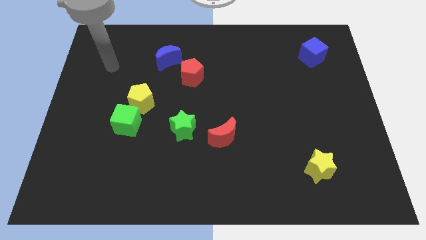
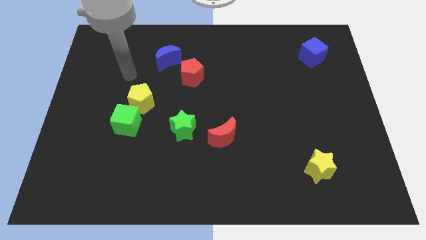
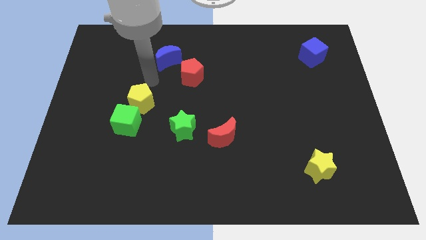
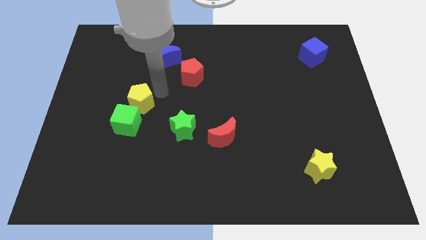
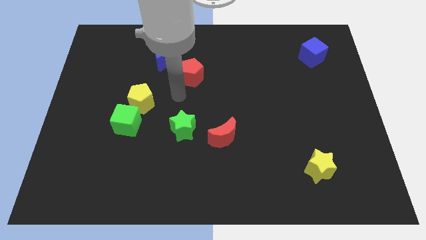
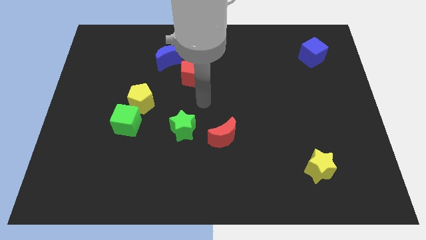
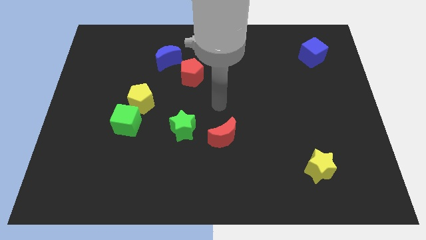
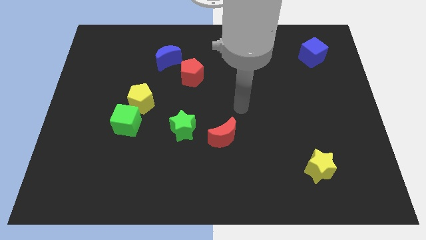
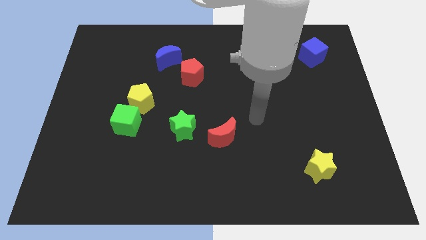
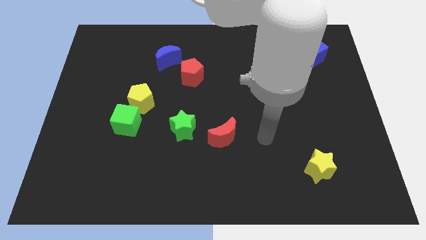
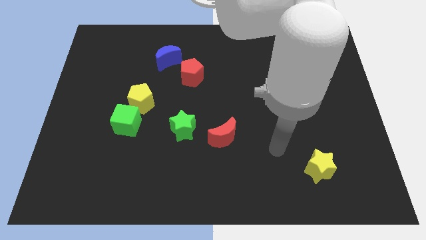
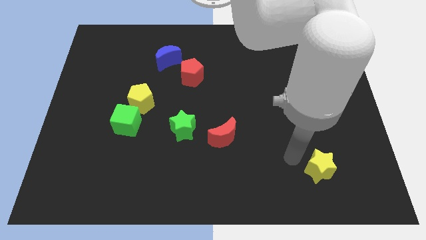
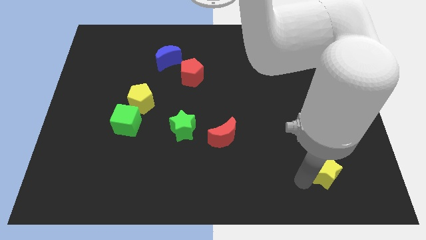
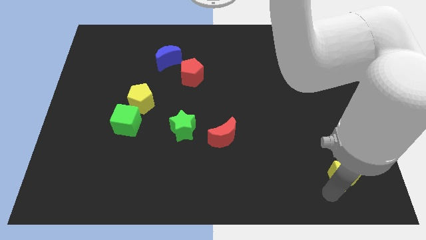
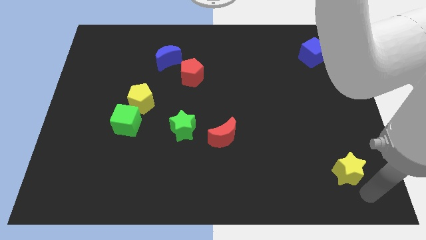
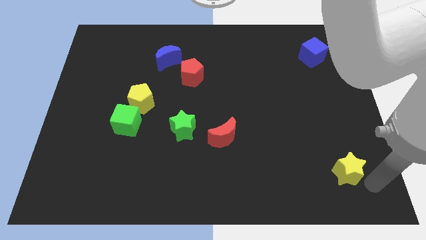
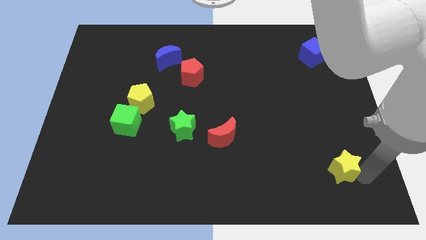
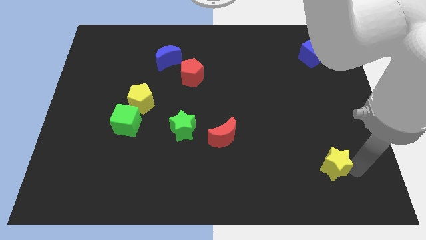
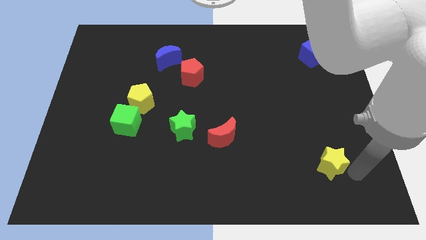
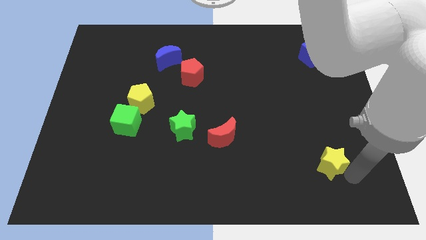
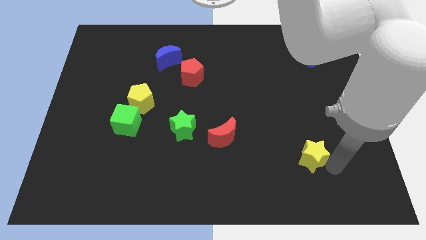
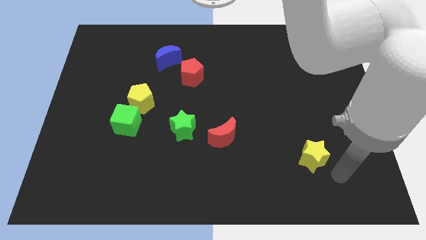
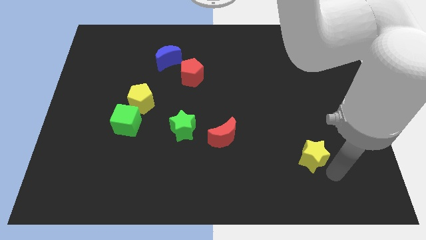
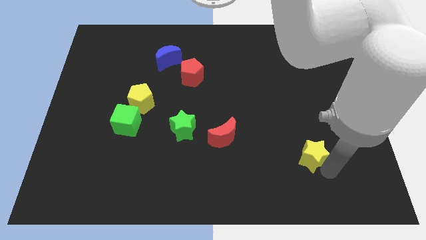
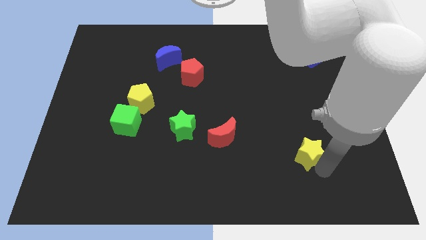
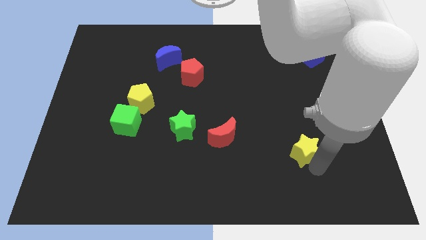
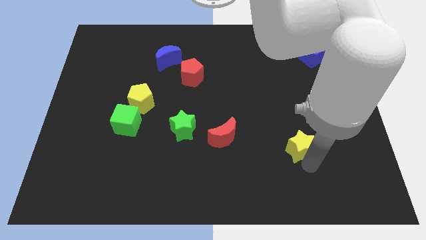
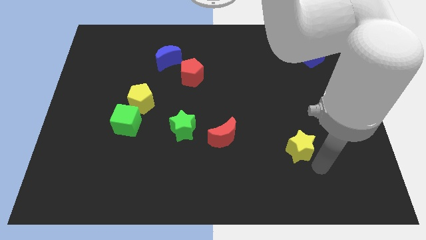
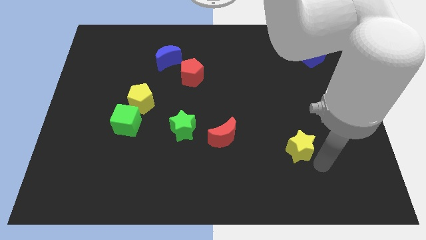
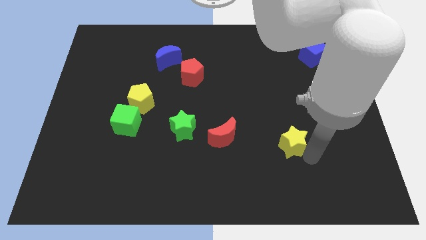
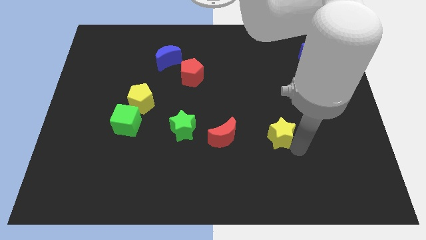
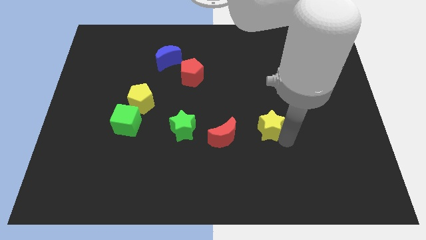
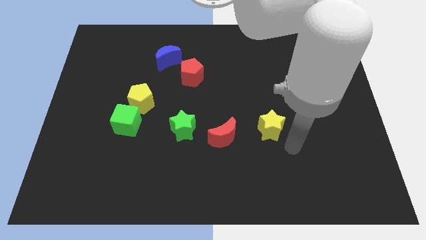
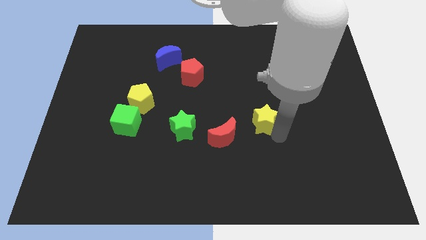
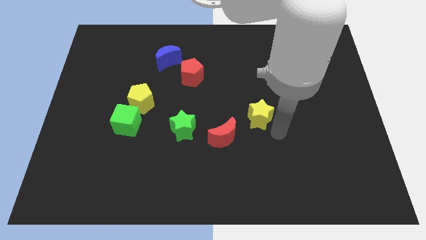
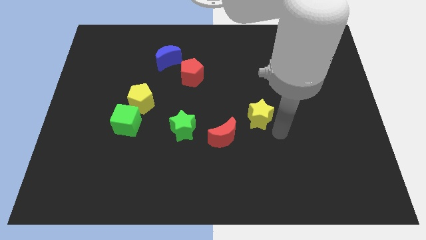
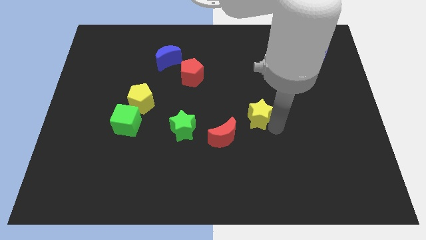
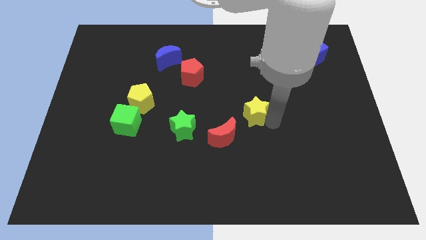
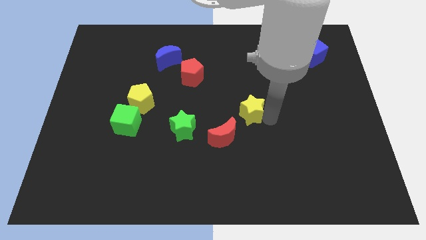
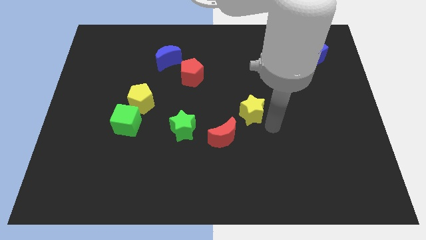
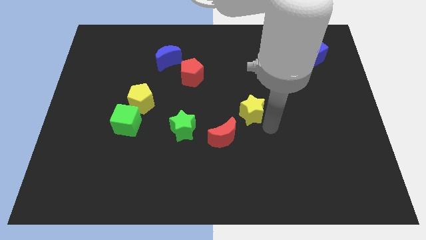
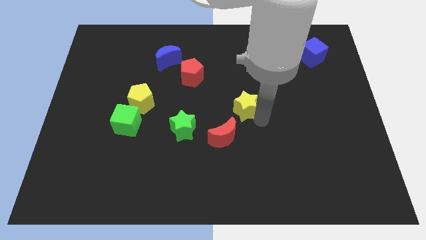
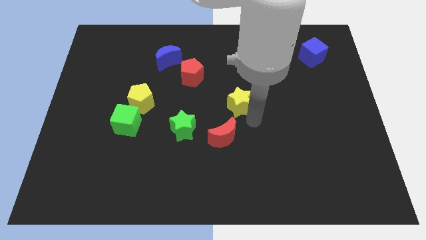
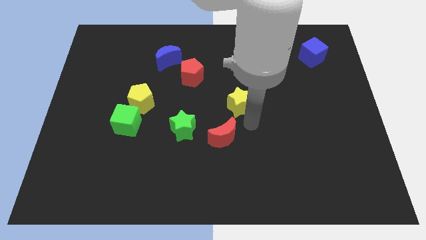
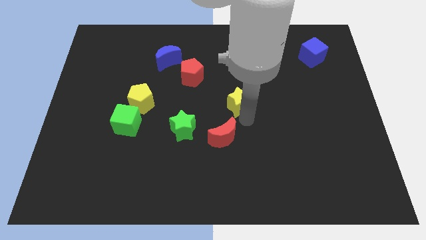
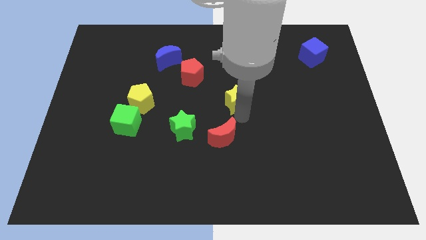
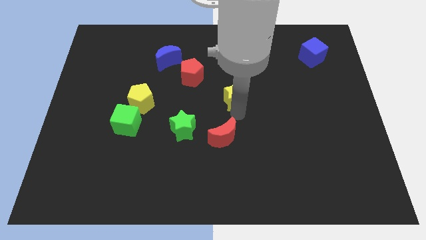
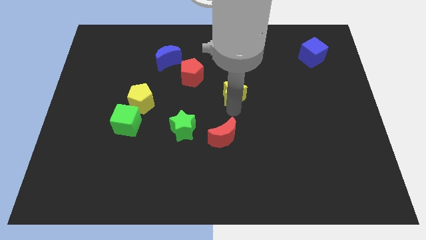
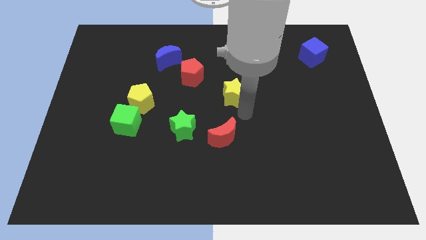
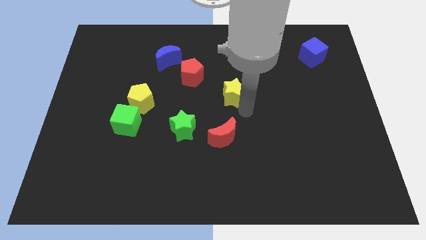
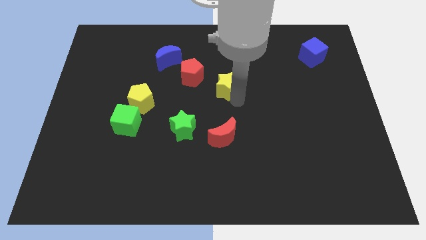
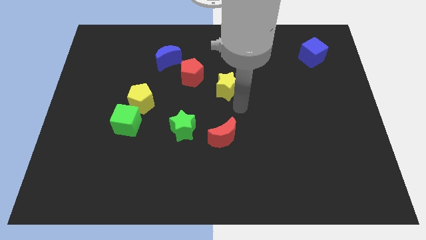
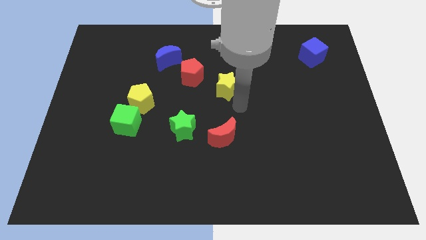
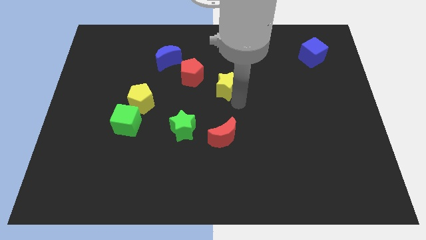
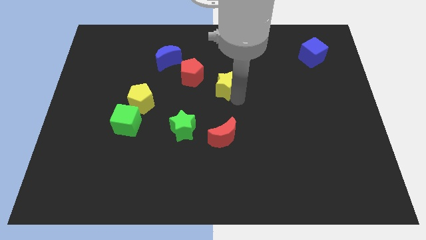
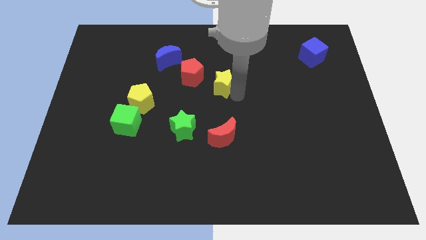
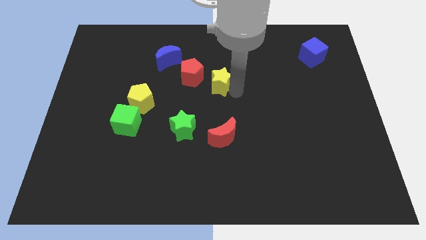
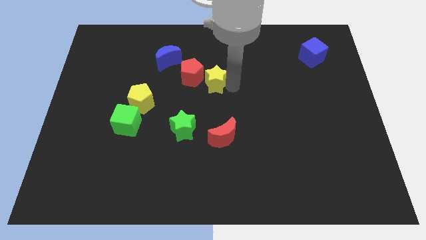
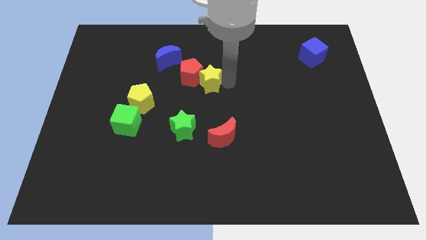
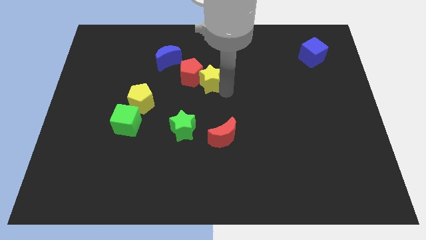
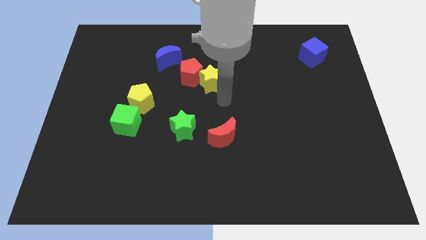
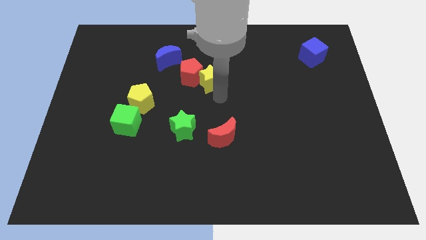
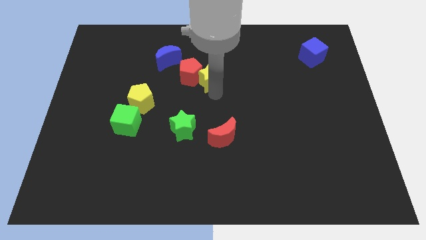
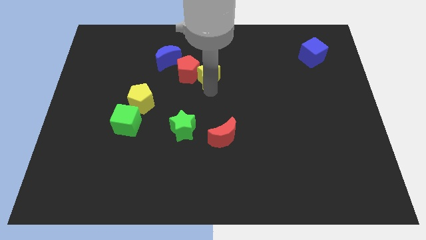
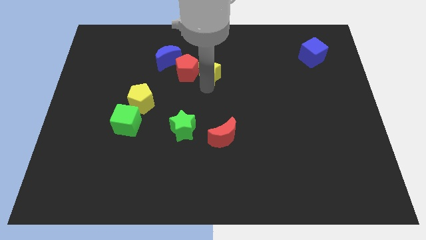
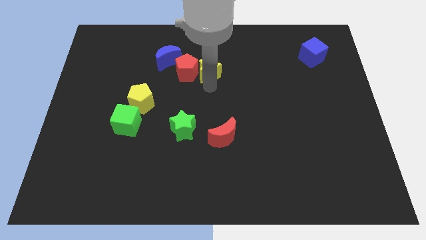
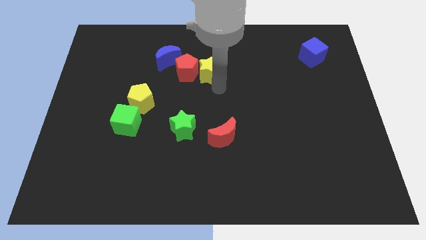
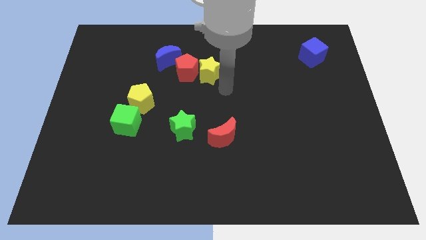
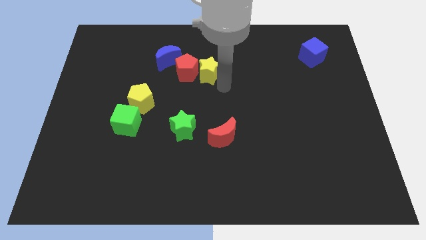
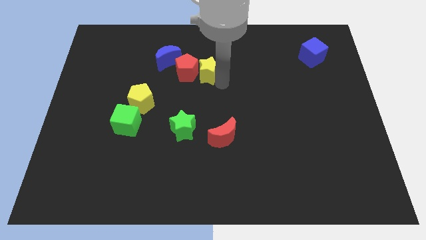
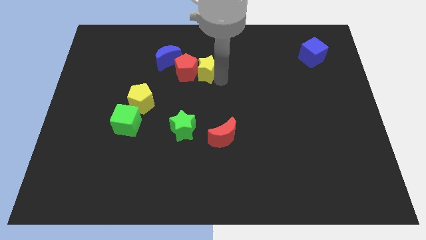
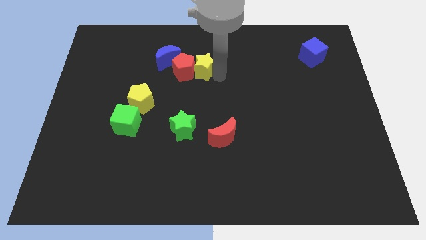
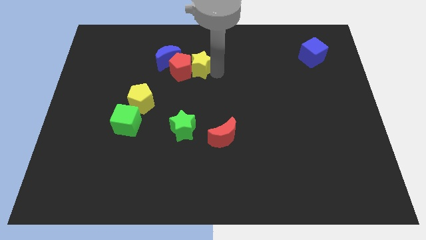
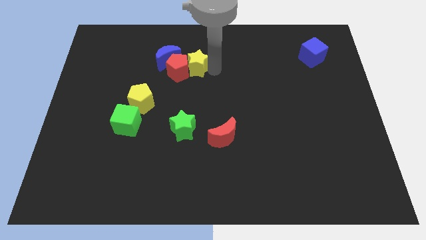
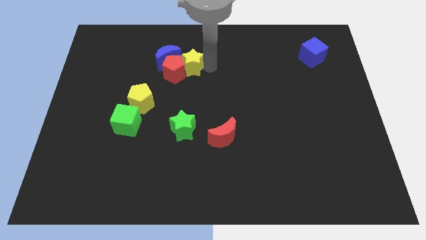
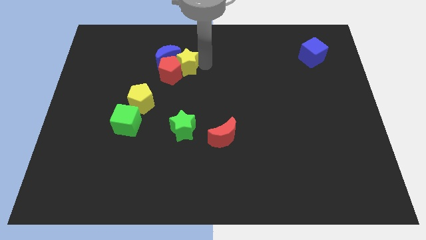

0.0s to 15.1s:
move the yellow star to the blue moon
